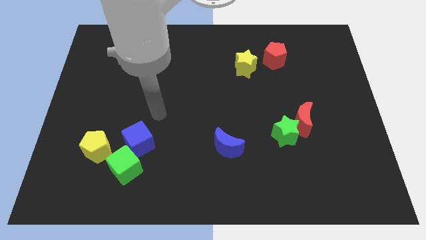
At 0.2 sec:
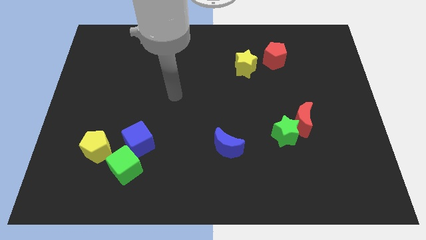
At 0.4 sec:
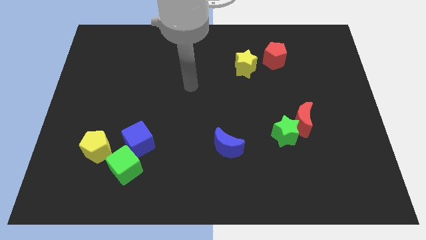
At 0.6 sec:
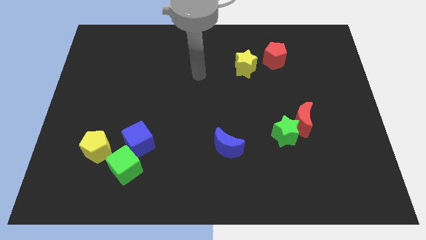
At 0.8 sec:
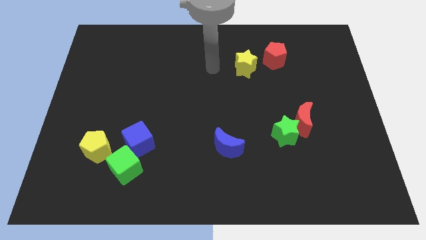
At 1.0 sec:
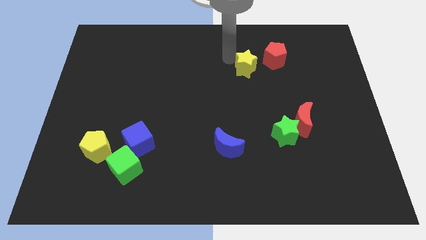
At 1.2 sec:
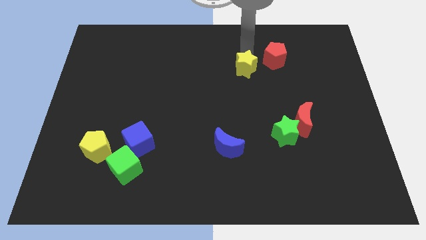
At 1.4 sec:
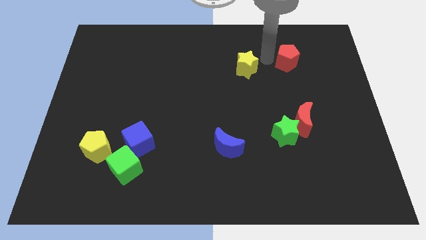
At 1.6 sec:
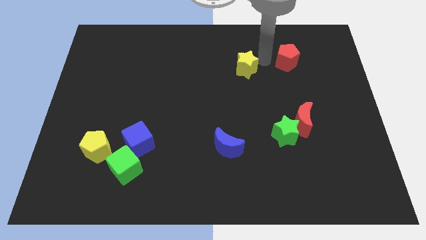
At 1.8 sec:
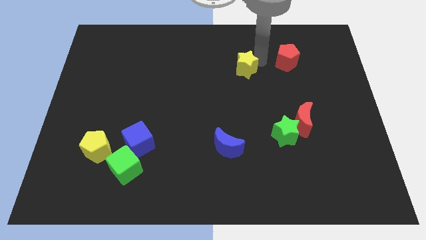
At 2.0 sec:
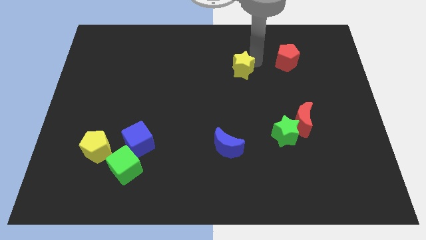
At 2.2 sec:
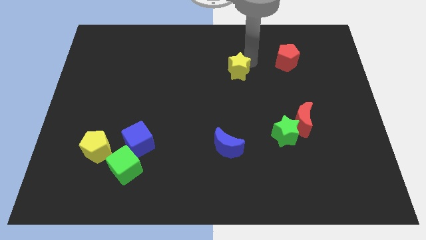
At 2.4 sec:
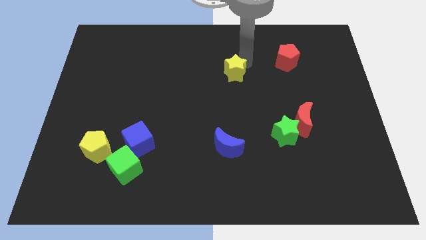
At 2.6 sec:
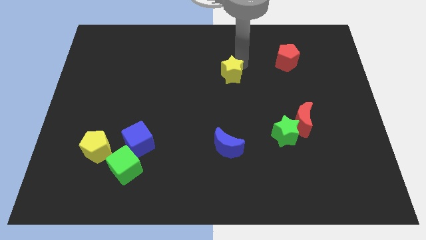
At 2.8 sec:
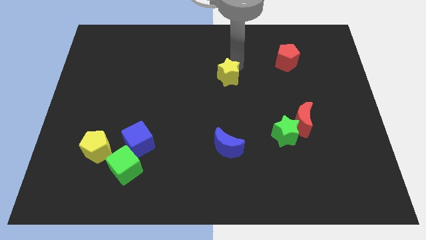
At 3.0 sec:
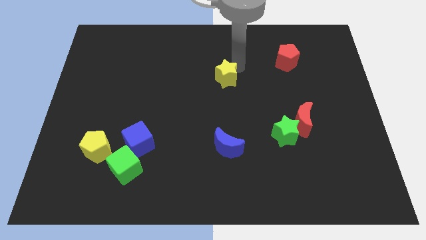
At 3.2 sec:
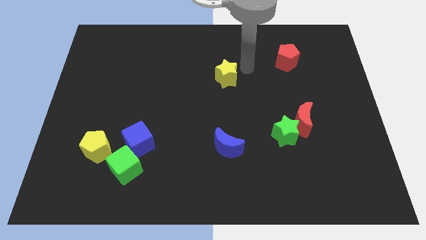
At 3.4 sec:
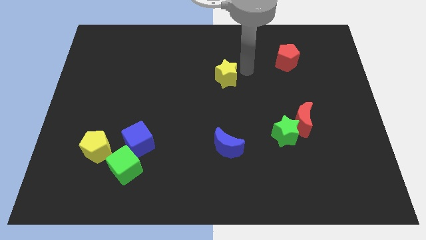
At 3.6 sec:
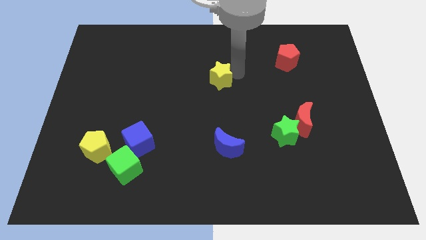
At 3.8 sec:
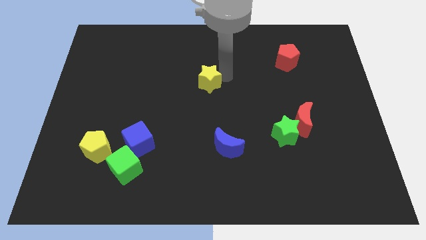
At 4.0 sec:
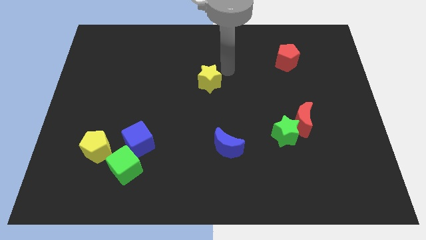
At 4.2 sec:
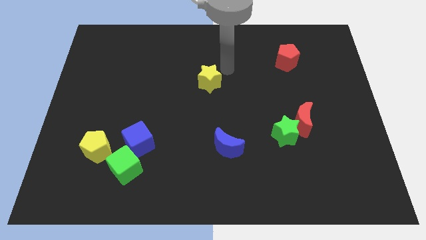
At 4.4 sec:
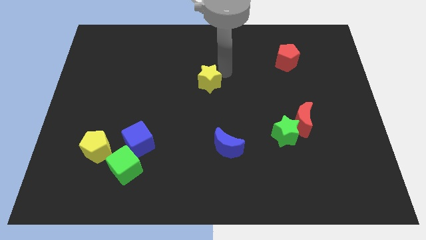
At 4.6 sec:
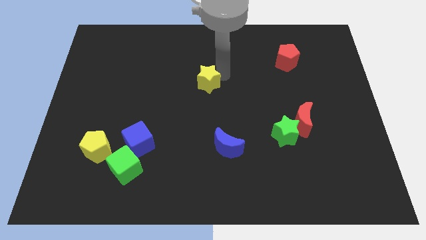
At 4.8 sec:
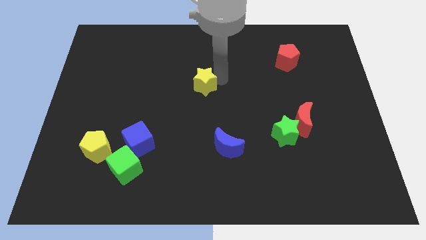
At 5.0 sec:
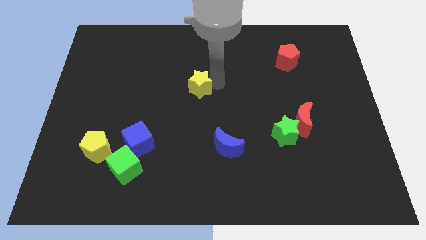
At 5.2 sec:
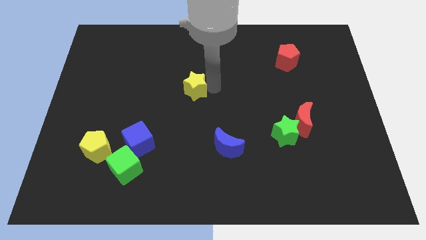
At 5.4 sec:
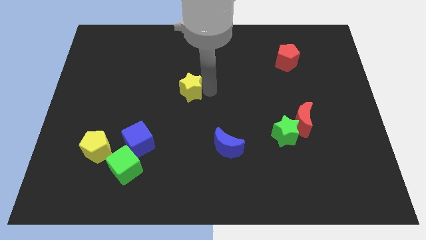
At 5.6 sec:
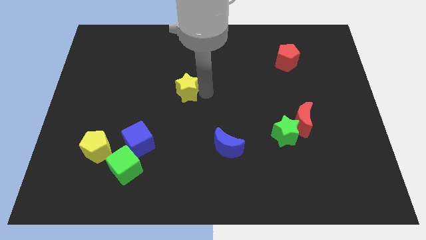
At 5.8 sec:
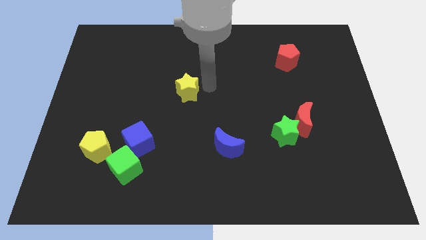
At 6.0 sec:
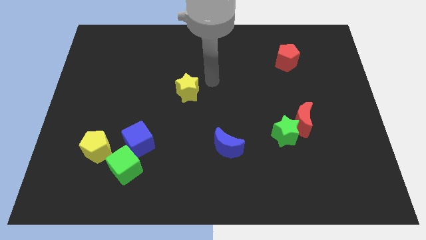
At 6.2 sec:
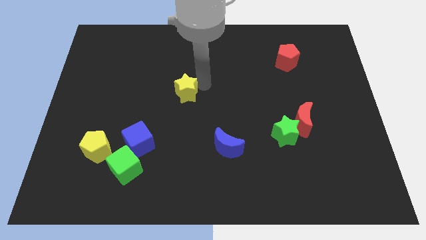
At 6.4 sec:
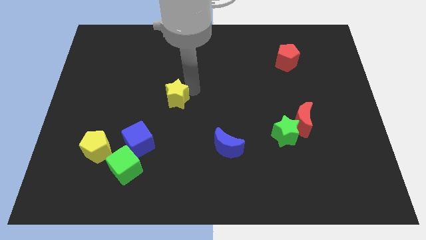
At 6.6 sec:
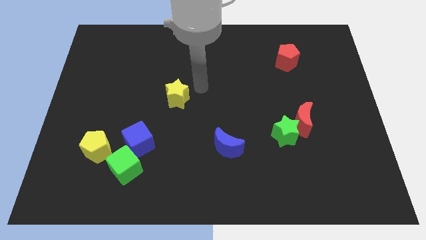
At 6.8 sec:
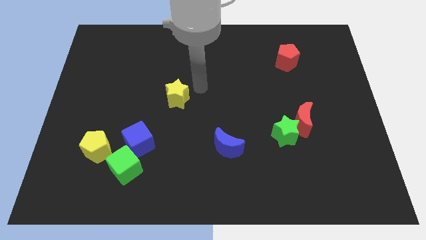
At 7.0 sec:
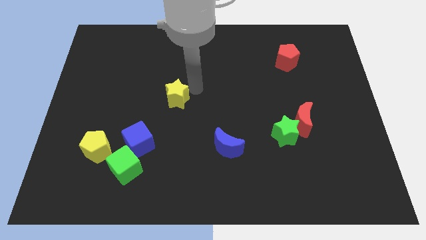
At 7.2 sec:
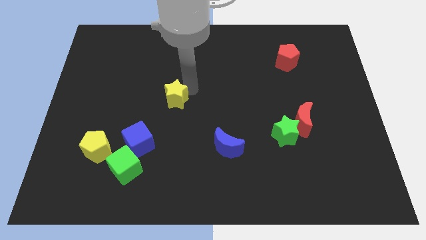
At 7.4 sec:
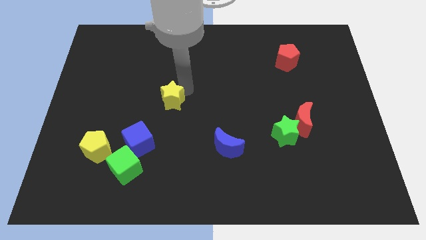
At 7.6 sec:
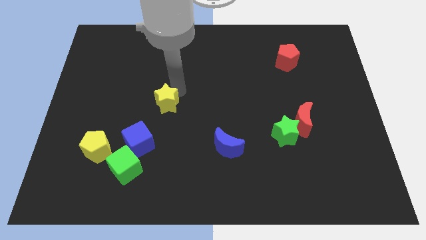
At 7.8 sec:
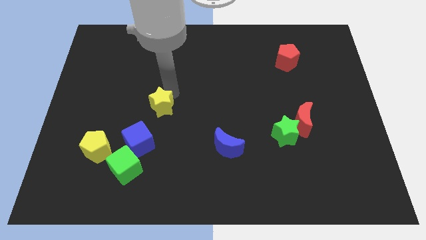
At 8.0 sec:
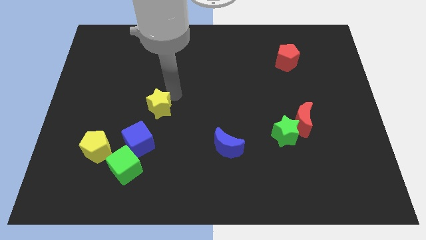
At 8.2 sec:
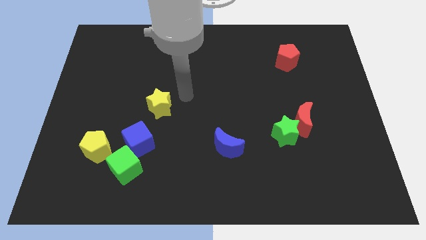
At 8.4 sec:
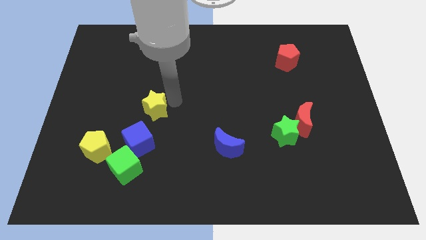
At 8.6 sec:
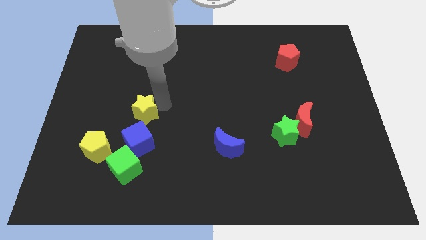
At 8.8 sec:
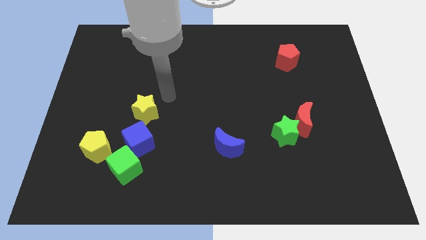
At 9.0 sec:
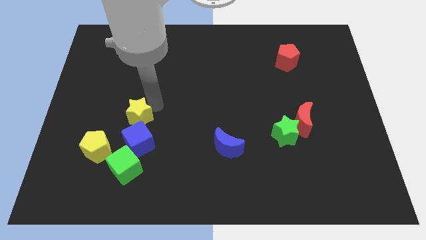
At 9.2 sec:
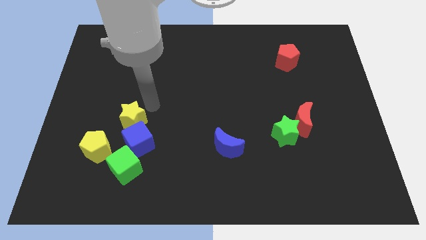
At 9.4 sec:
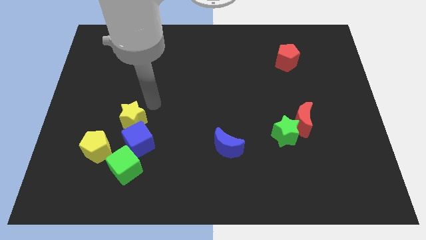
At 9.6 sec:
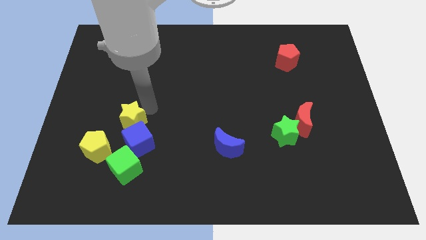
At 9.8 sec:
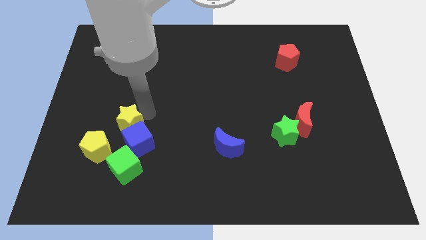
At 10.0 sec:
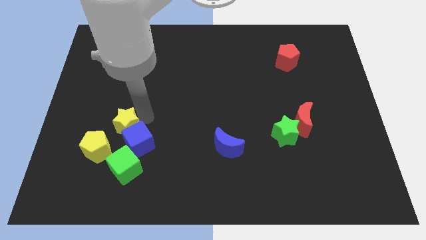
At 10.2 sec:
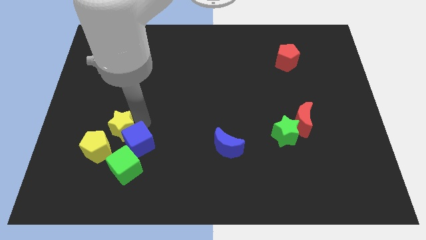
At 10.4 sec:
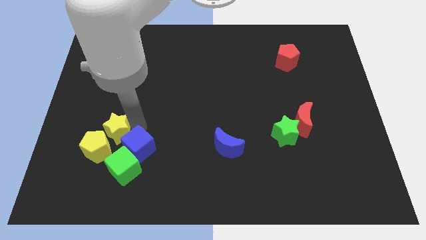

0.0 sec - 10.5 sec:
put the yellow star close to the yellow pentagon

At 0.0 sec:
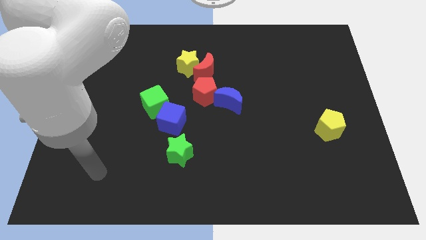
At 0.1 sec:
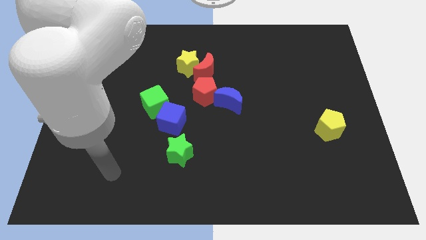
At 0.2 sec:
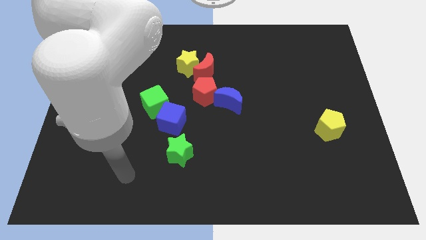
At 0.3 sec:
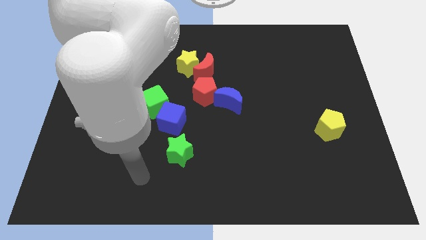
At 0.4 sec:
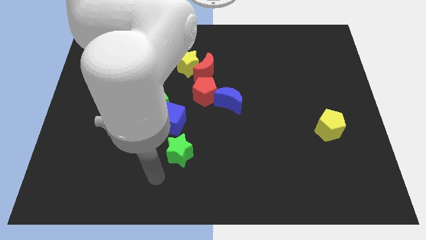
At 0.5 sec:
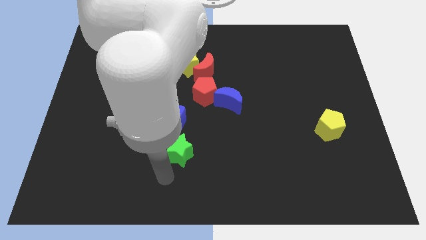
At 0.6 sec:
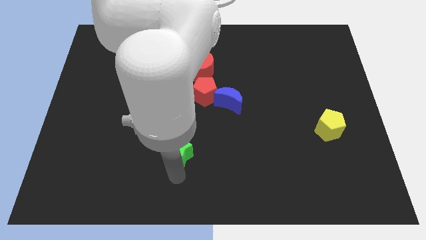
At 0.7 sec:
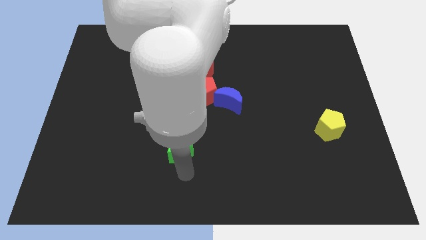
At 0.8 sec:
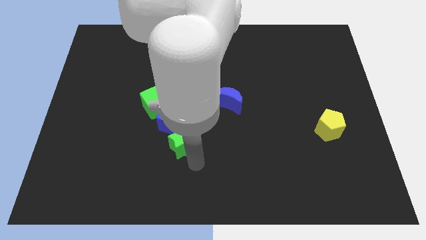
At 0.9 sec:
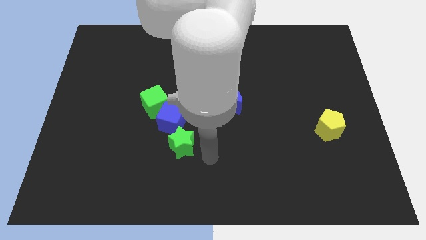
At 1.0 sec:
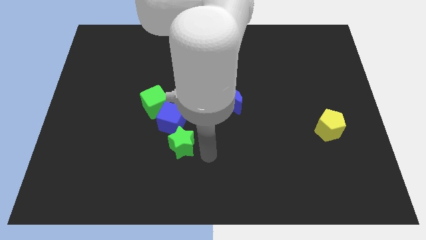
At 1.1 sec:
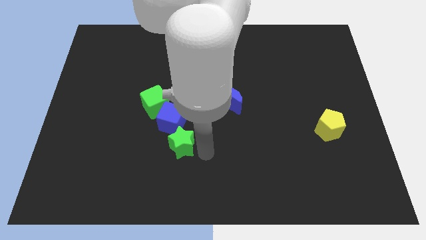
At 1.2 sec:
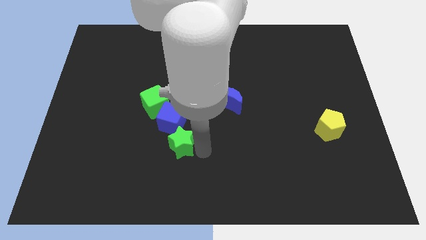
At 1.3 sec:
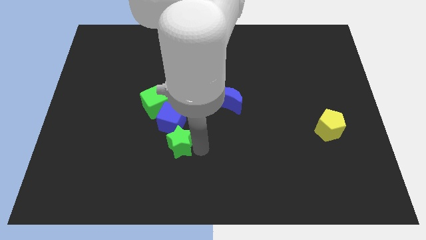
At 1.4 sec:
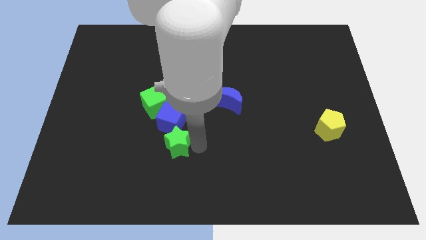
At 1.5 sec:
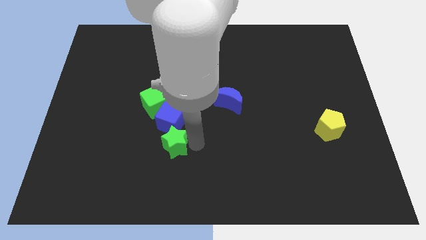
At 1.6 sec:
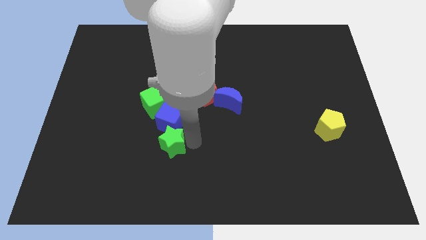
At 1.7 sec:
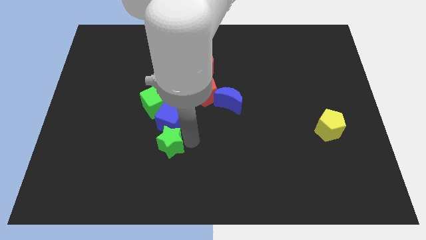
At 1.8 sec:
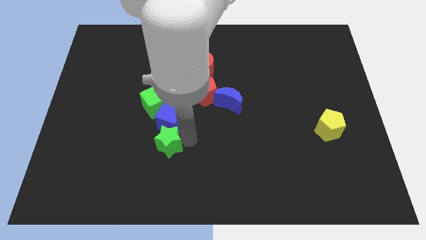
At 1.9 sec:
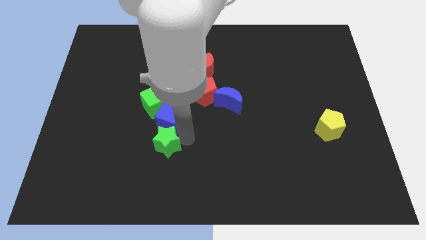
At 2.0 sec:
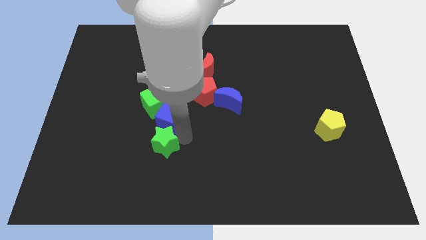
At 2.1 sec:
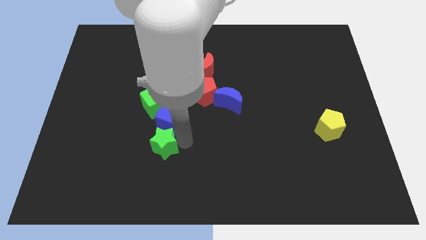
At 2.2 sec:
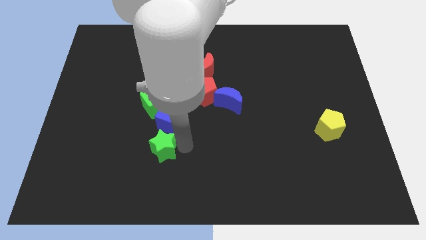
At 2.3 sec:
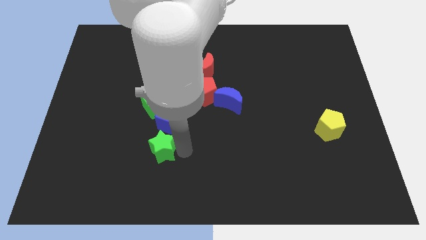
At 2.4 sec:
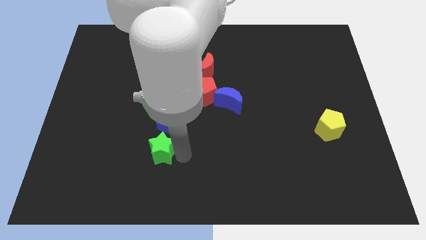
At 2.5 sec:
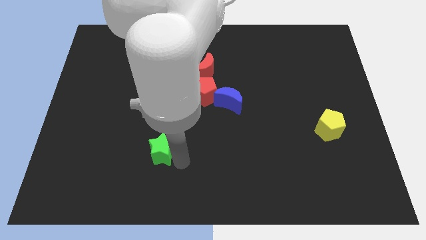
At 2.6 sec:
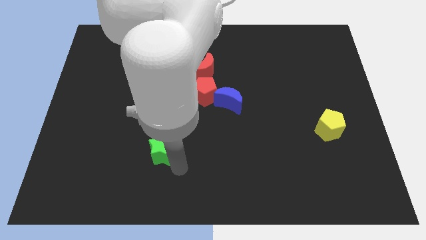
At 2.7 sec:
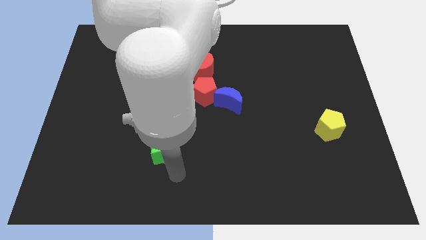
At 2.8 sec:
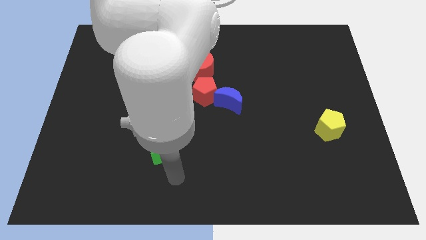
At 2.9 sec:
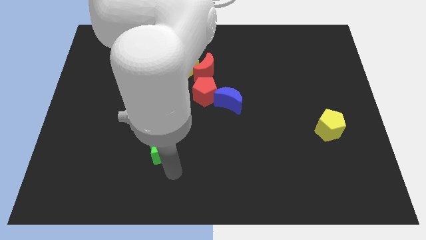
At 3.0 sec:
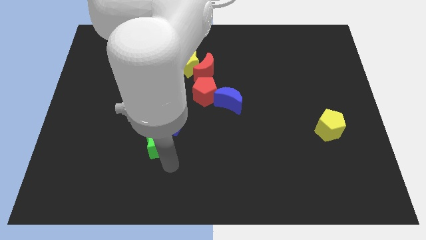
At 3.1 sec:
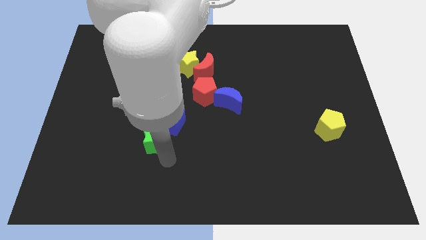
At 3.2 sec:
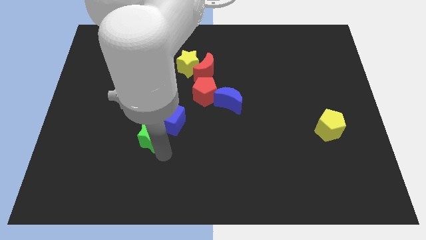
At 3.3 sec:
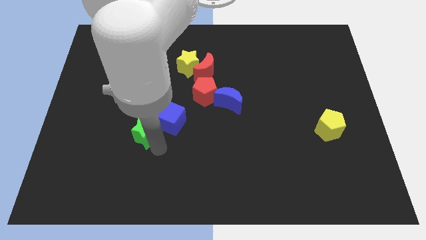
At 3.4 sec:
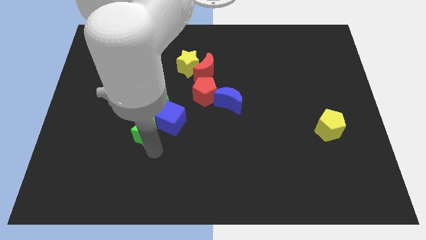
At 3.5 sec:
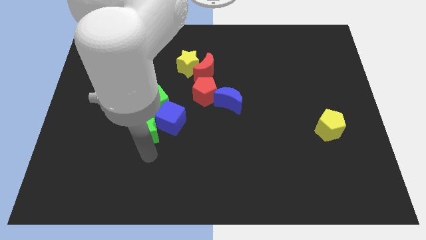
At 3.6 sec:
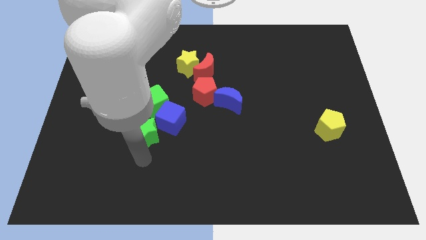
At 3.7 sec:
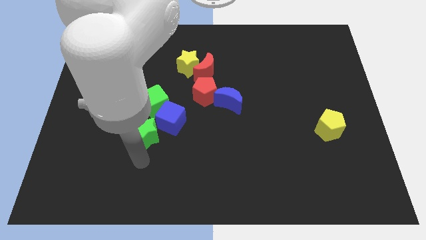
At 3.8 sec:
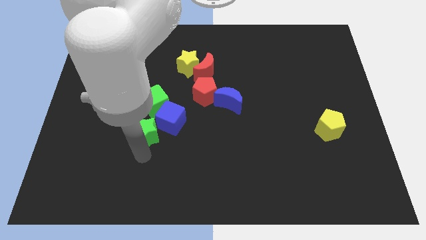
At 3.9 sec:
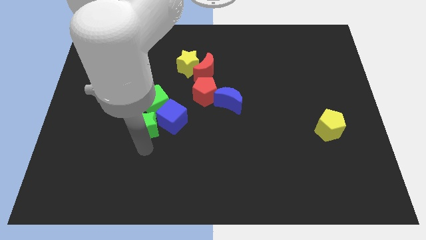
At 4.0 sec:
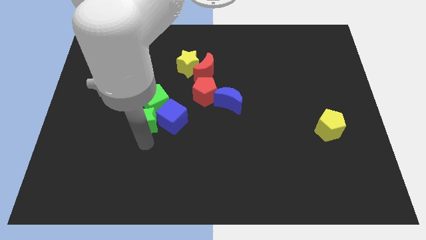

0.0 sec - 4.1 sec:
push the green star next to the green cube
